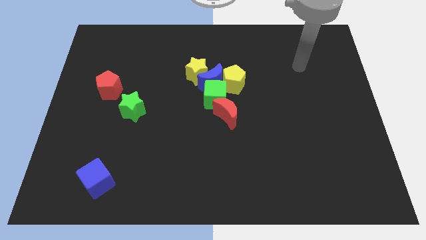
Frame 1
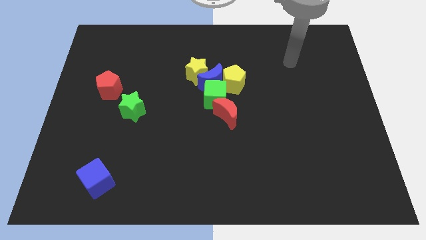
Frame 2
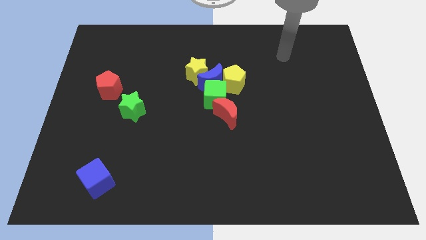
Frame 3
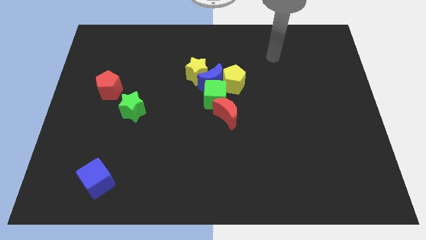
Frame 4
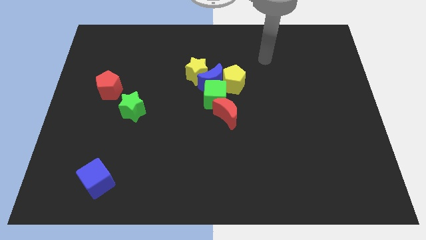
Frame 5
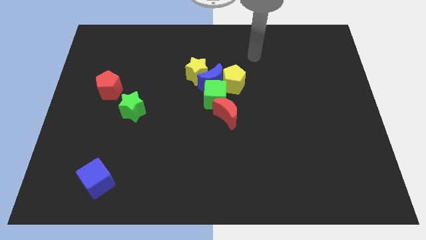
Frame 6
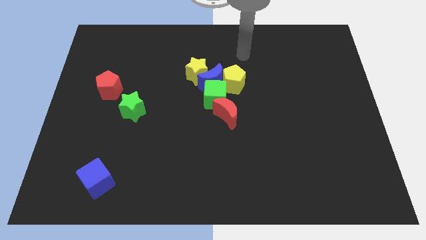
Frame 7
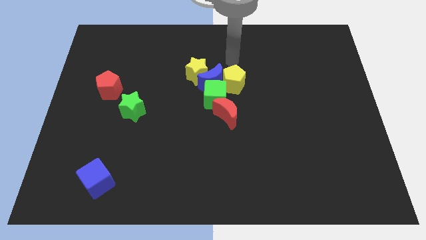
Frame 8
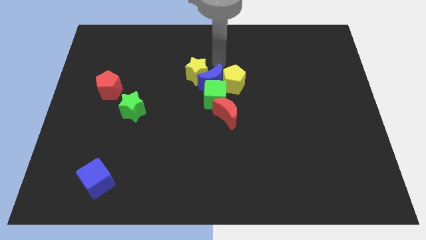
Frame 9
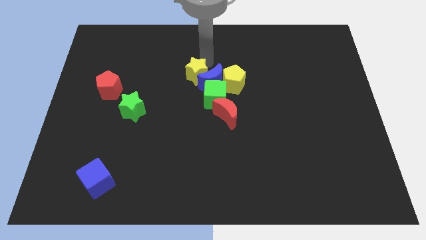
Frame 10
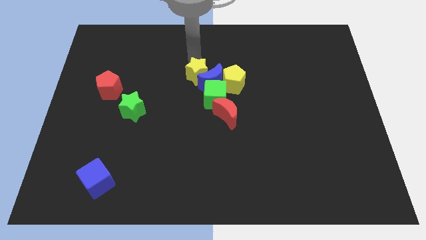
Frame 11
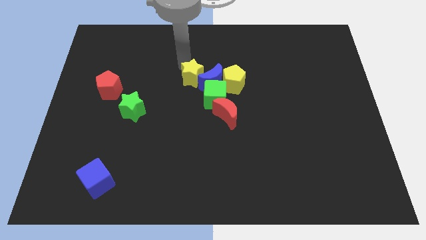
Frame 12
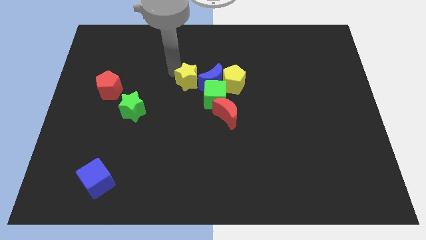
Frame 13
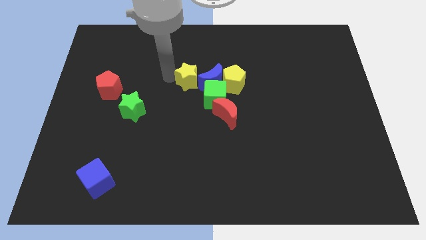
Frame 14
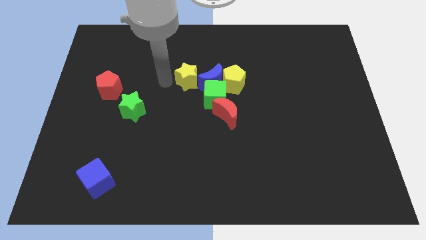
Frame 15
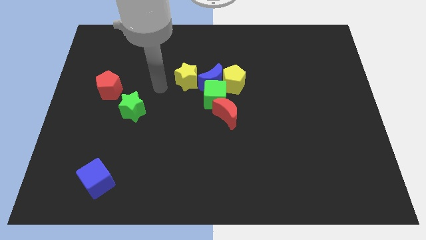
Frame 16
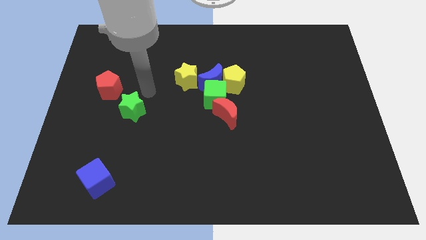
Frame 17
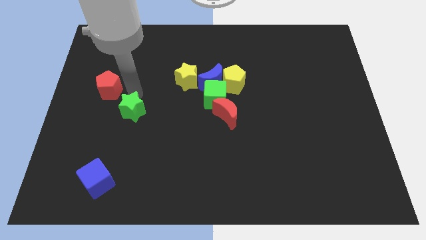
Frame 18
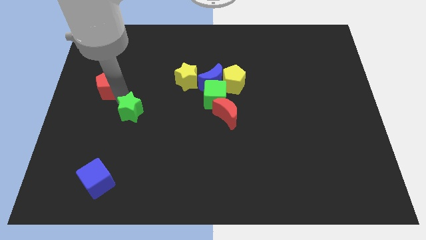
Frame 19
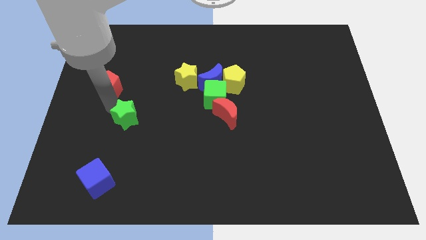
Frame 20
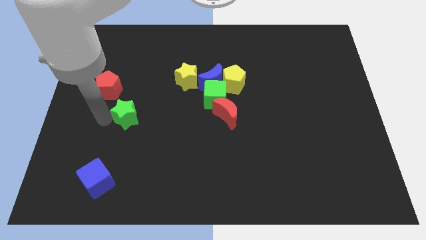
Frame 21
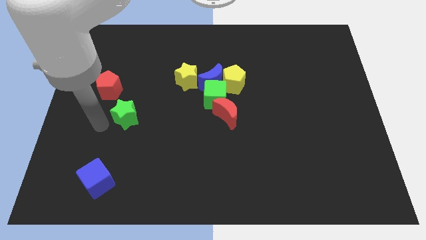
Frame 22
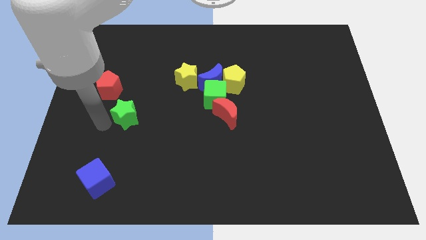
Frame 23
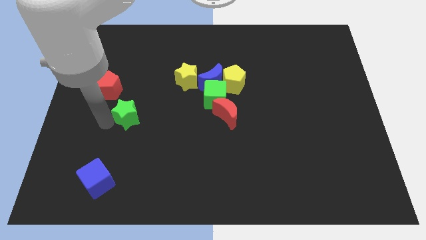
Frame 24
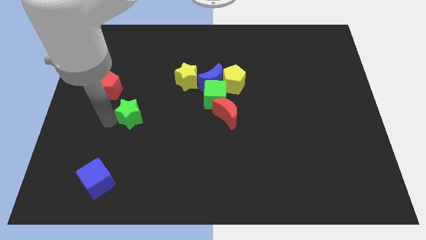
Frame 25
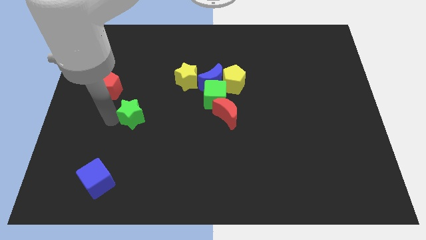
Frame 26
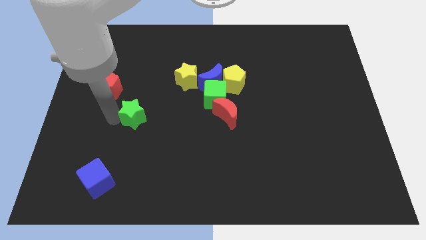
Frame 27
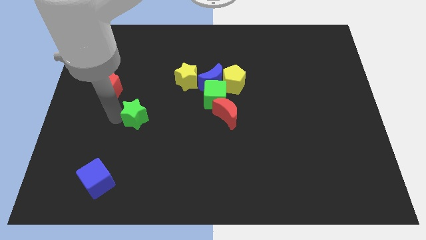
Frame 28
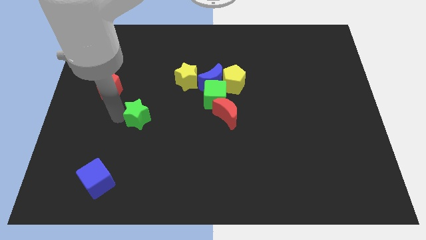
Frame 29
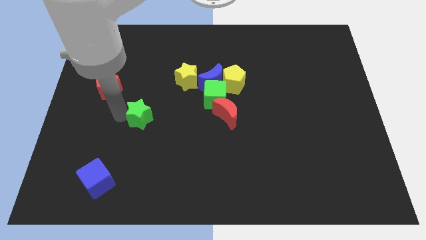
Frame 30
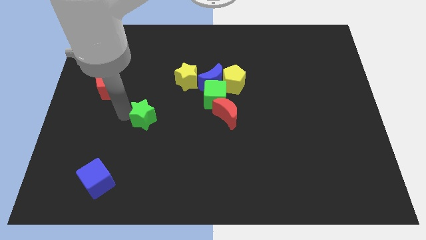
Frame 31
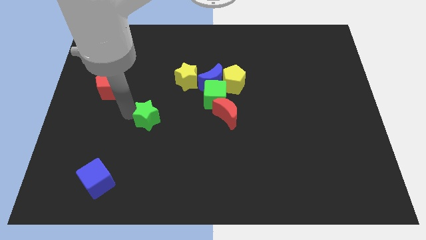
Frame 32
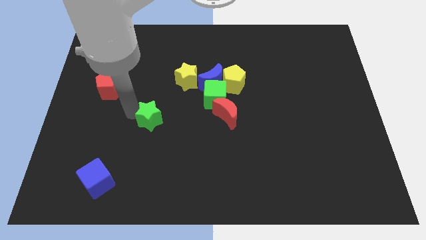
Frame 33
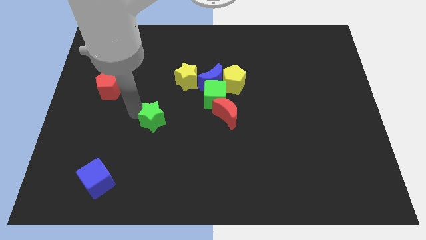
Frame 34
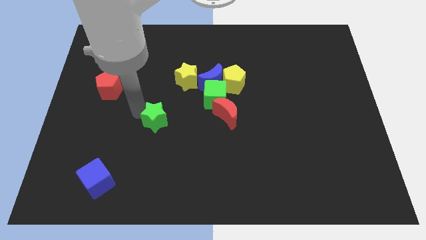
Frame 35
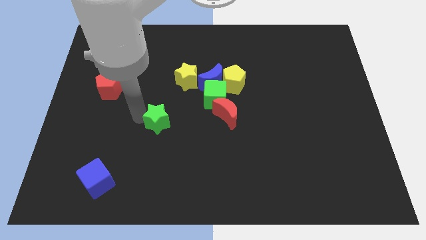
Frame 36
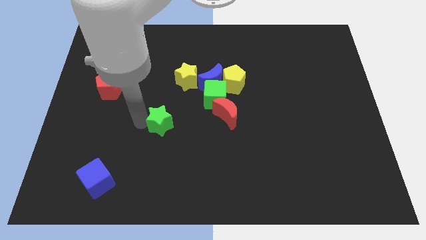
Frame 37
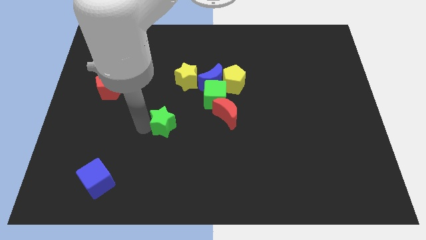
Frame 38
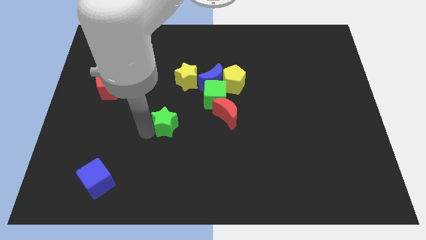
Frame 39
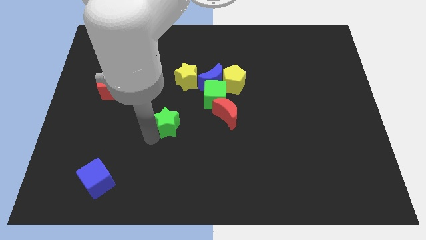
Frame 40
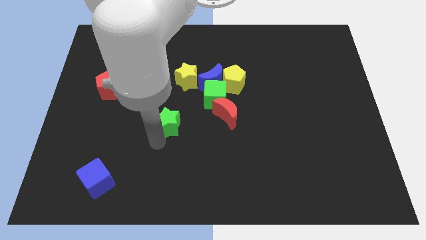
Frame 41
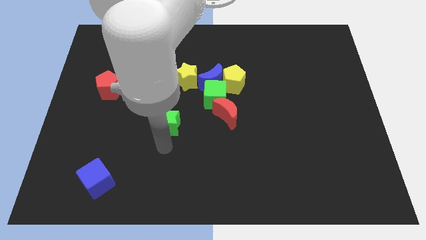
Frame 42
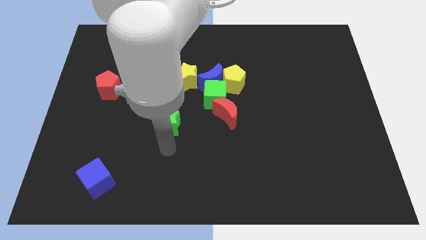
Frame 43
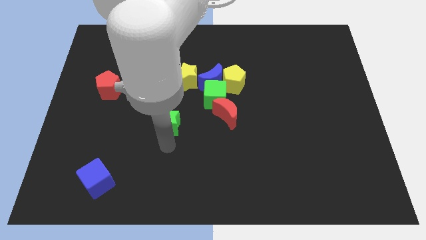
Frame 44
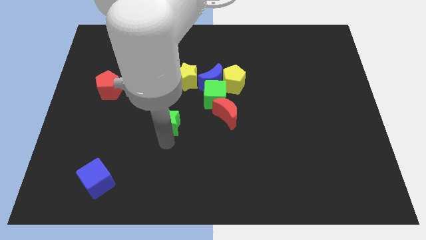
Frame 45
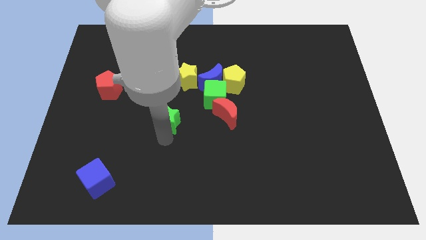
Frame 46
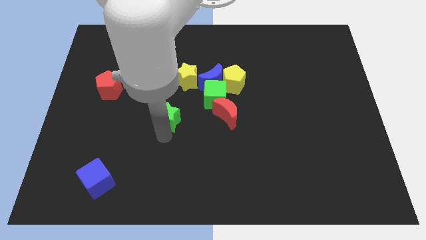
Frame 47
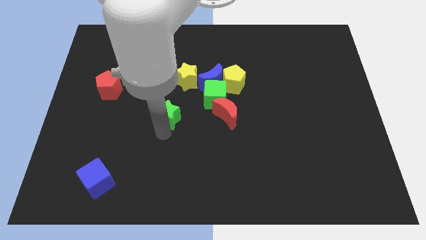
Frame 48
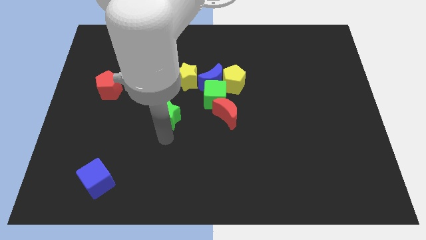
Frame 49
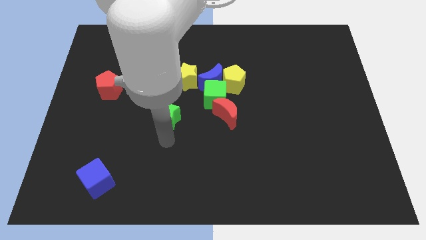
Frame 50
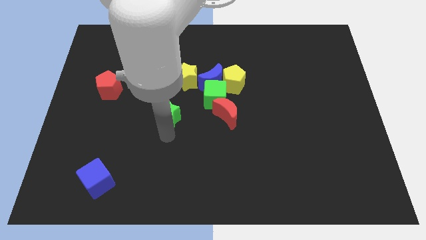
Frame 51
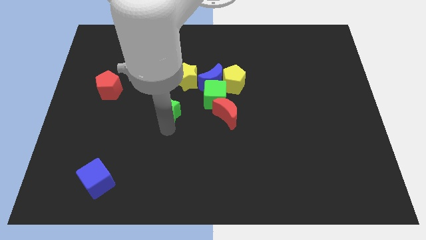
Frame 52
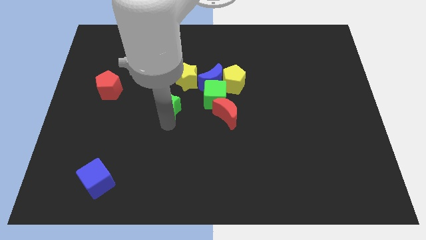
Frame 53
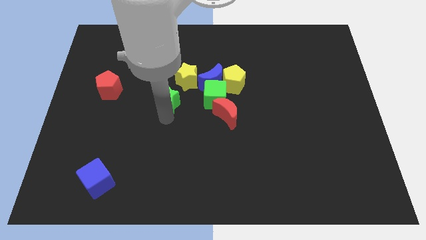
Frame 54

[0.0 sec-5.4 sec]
move the green star to the bottom left side of the blue moon

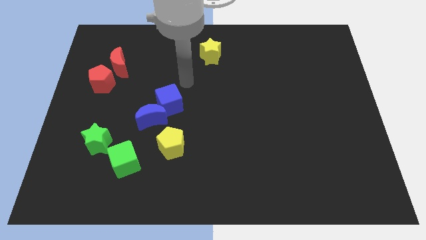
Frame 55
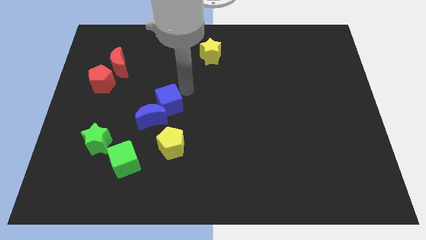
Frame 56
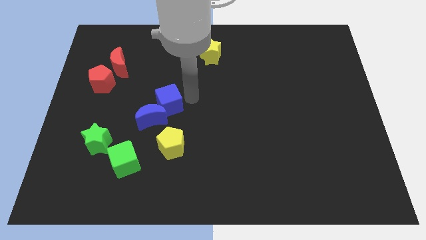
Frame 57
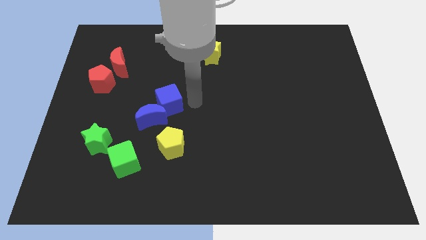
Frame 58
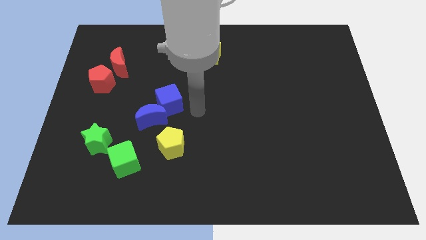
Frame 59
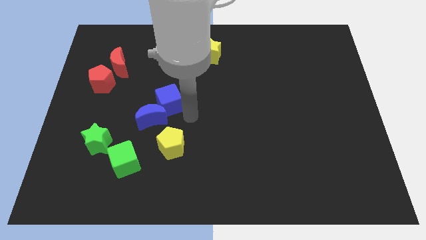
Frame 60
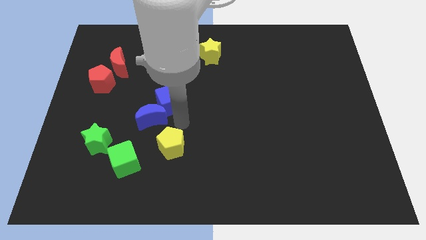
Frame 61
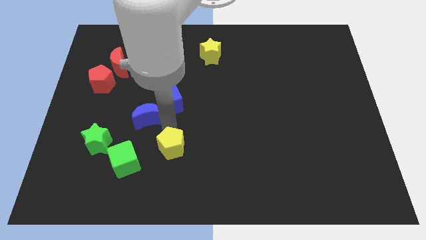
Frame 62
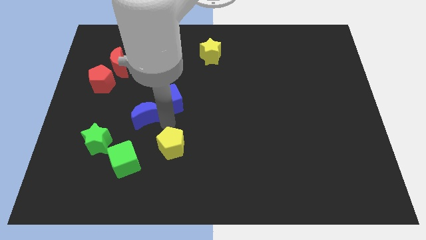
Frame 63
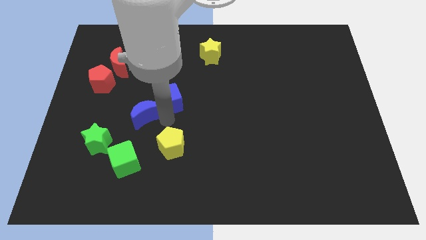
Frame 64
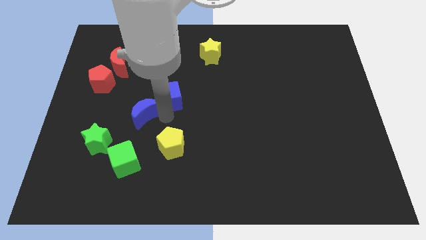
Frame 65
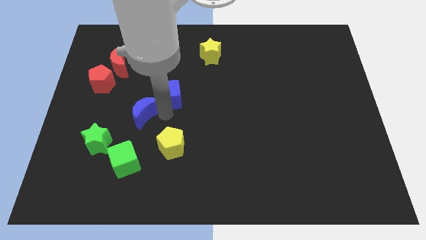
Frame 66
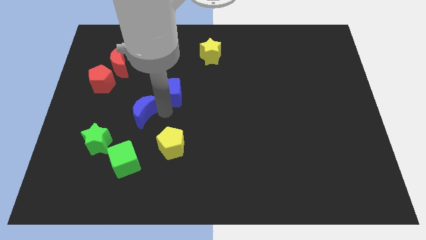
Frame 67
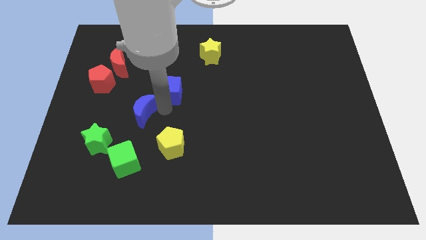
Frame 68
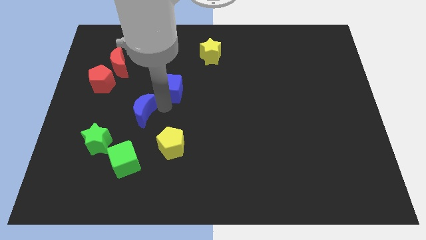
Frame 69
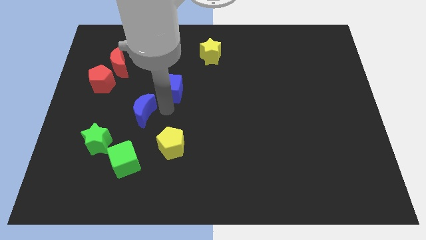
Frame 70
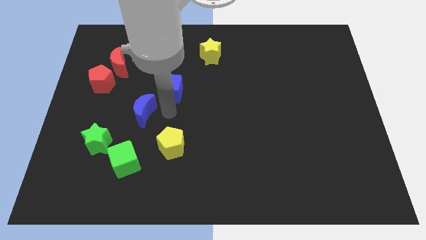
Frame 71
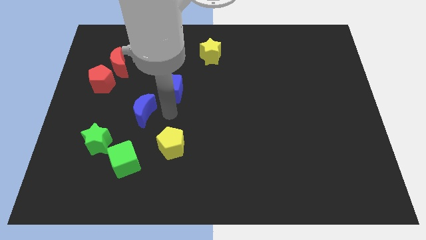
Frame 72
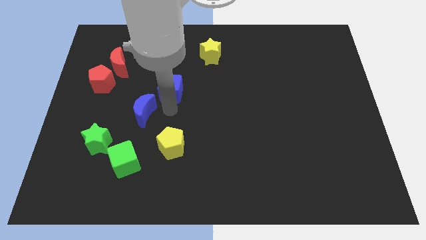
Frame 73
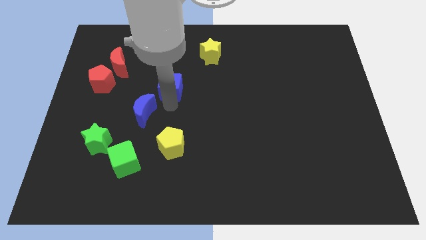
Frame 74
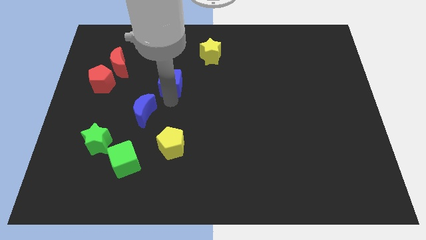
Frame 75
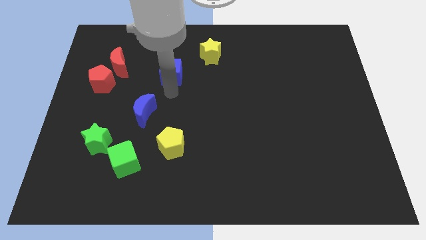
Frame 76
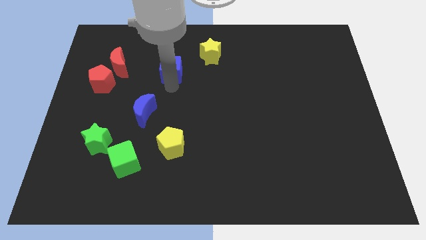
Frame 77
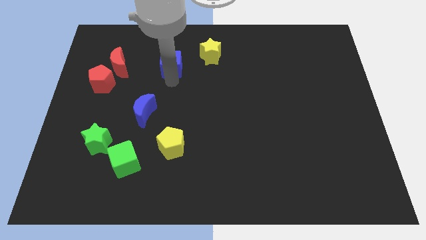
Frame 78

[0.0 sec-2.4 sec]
move the blue cube to the left side of the yellow star
